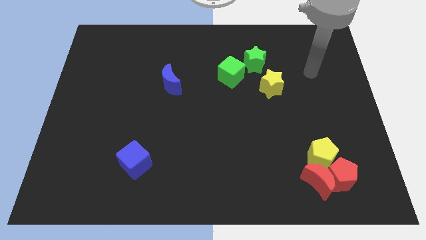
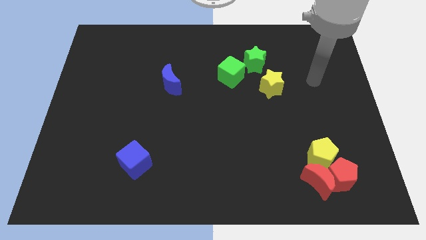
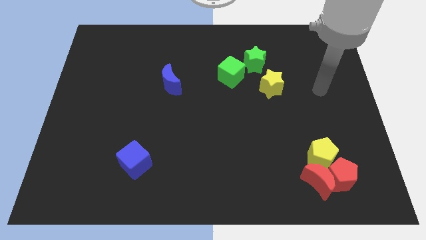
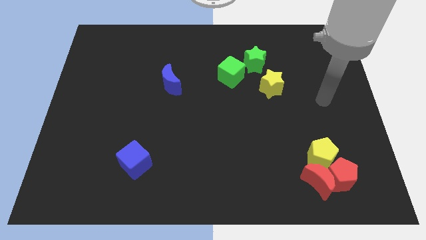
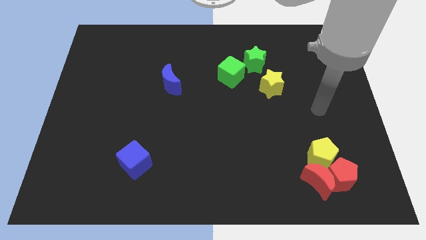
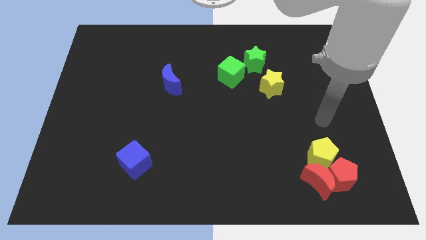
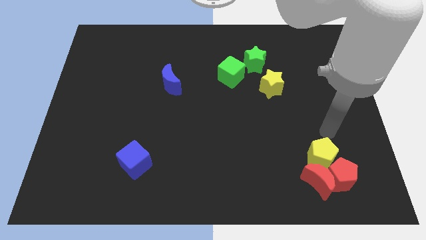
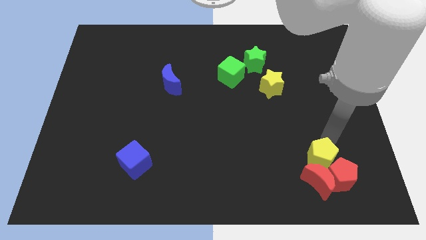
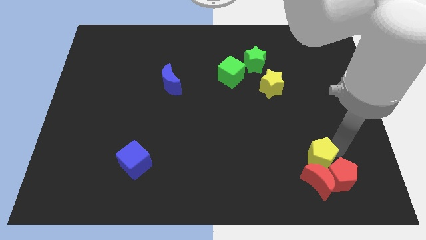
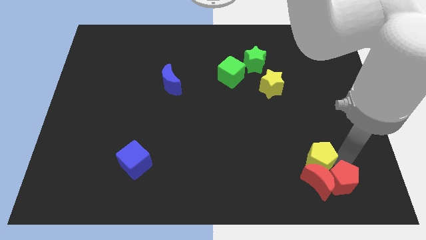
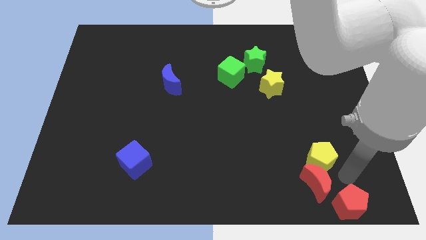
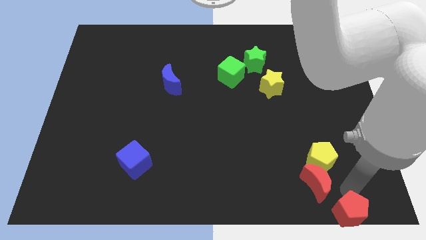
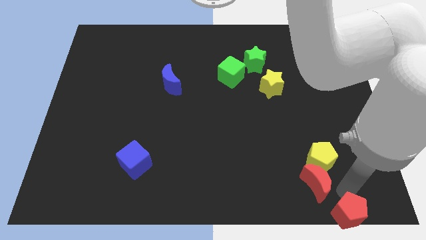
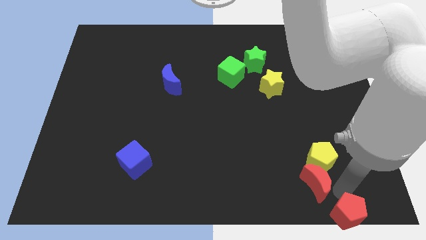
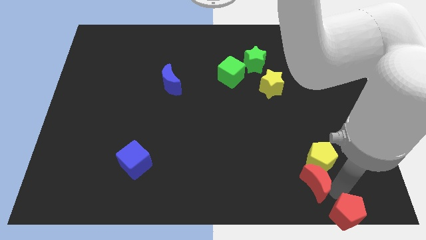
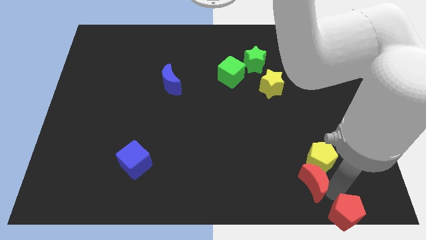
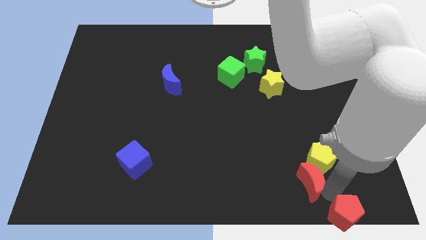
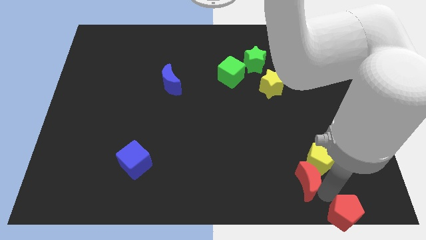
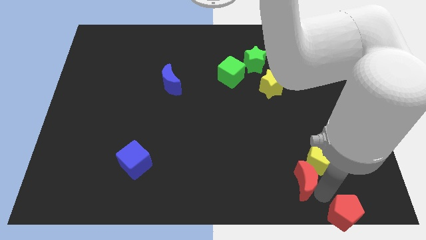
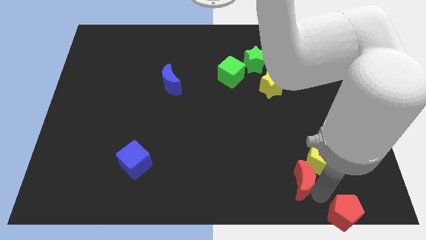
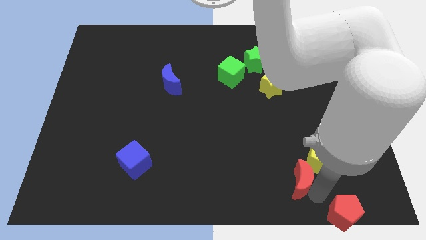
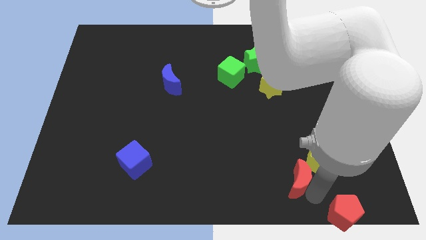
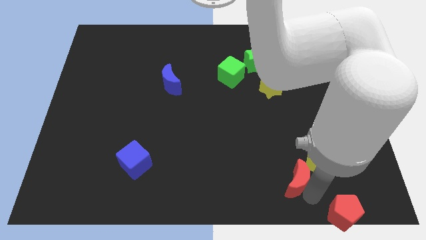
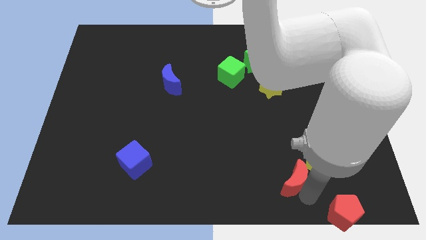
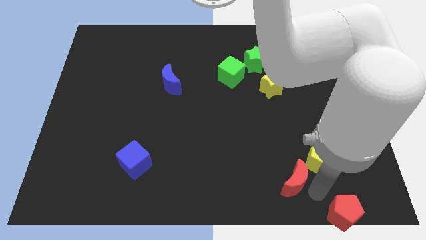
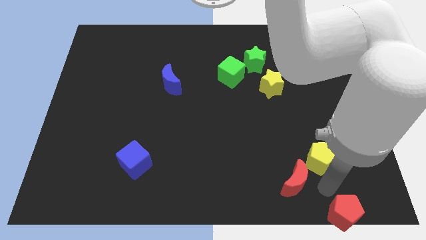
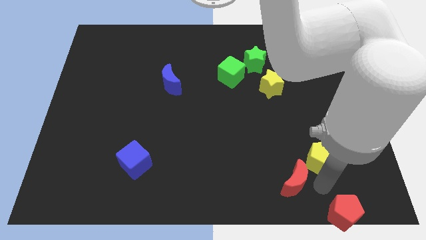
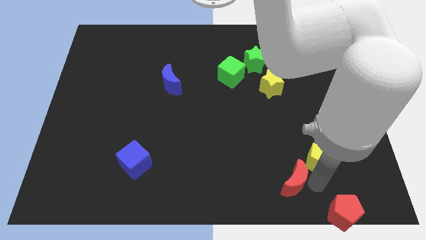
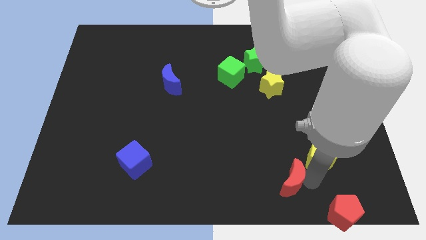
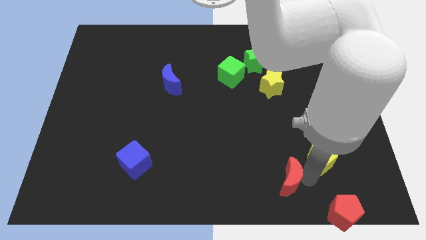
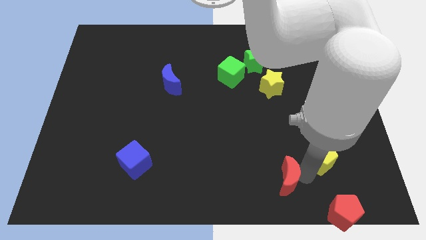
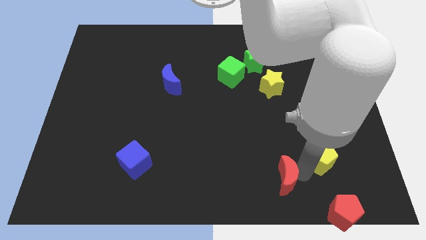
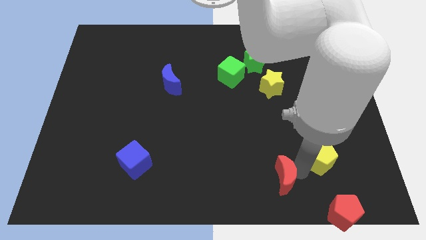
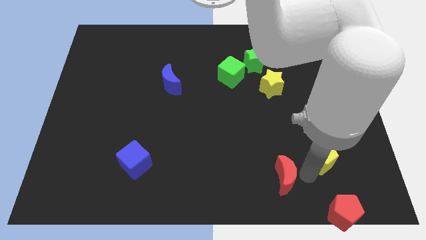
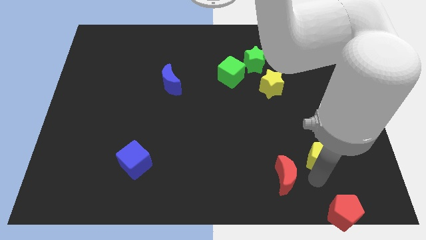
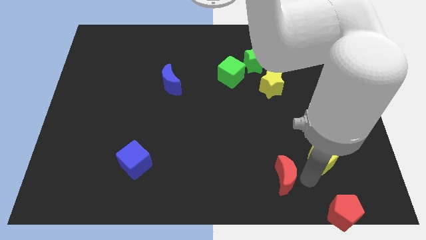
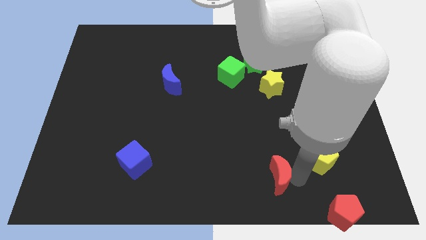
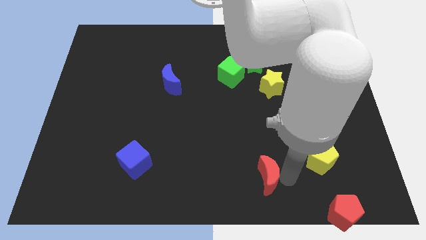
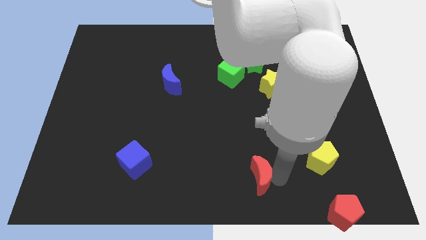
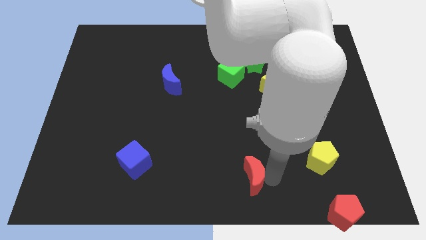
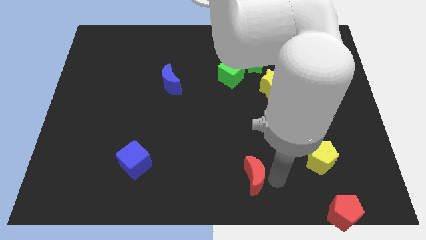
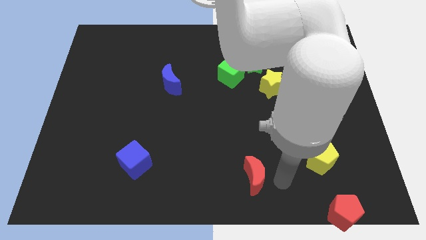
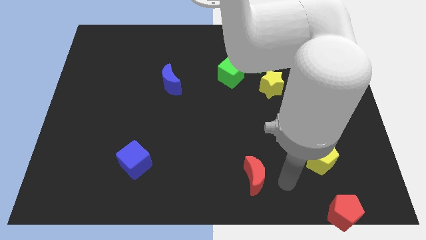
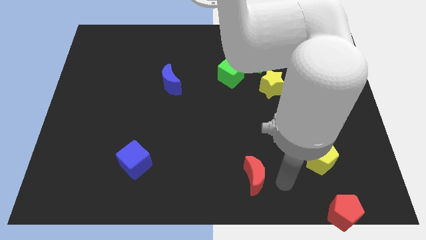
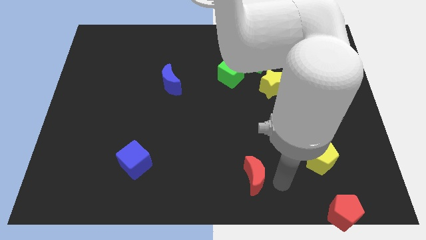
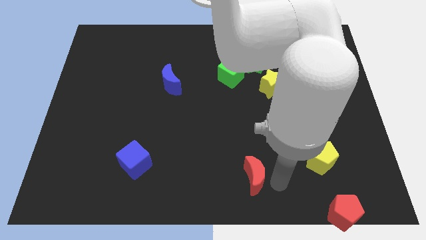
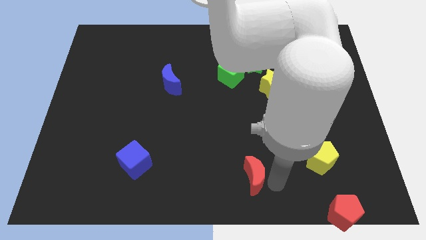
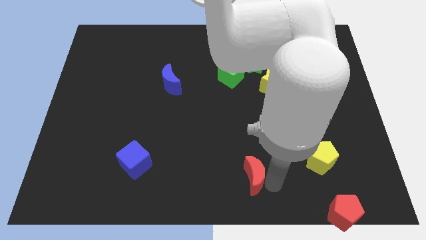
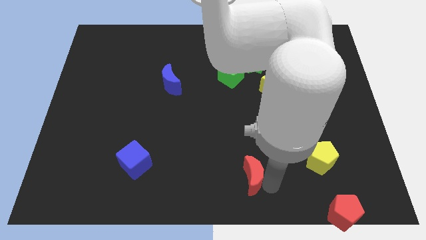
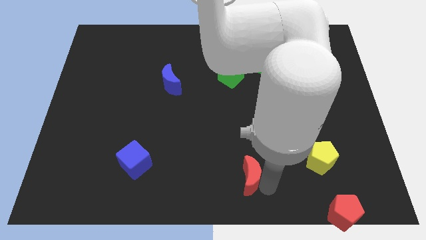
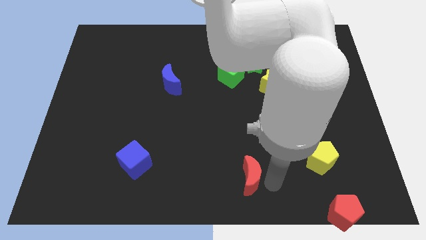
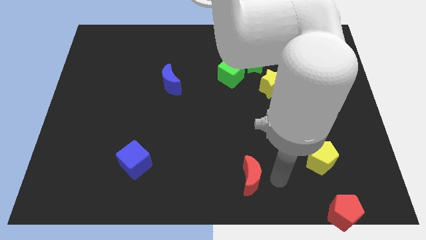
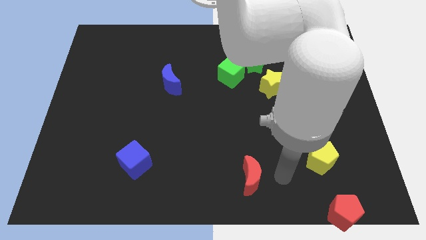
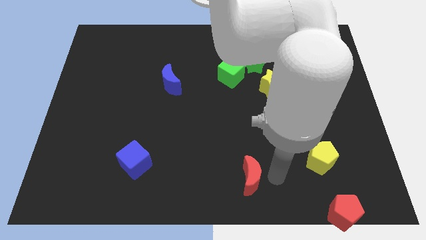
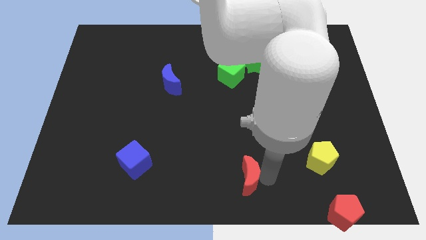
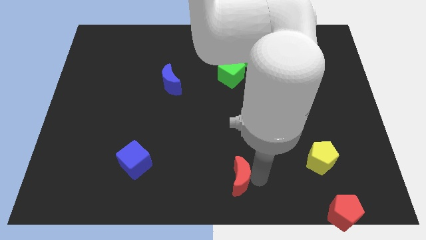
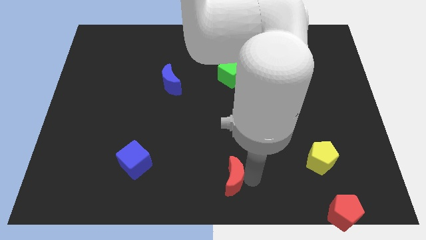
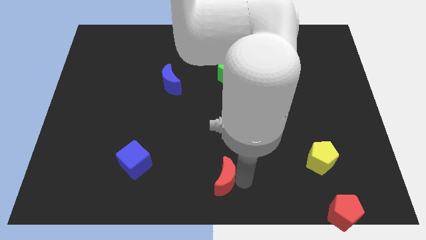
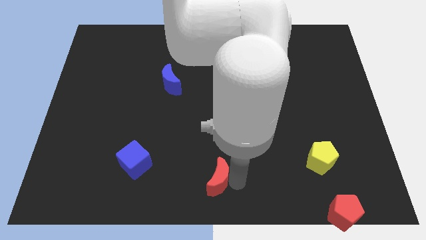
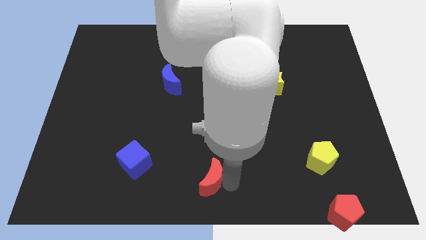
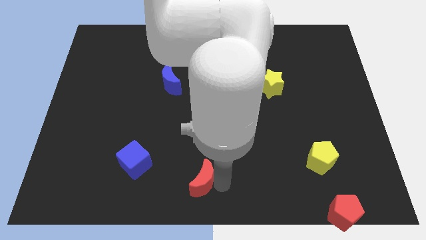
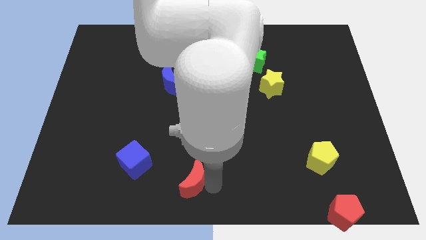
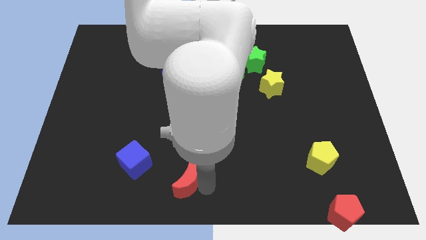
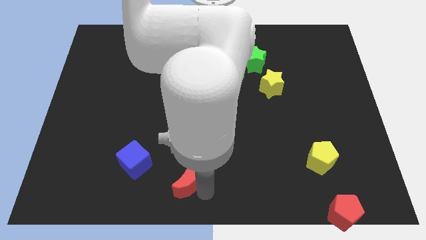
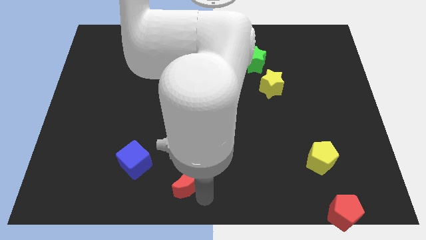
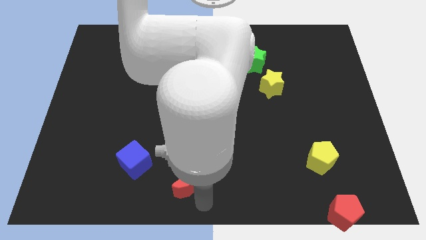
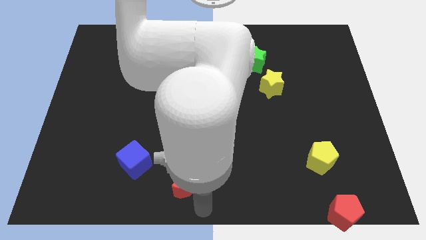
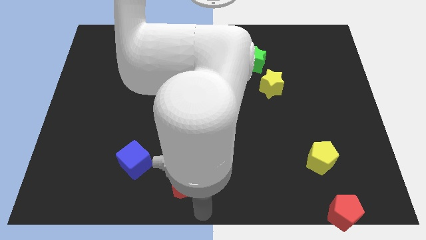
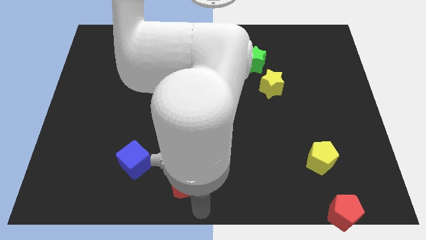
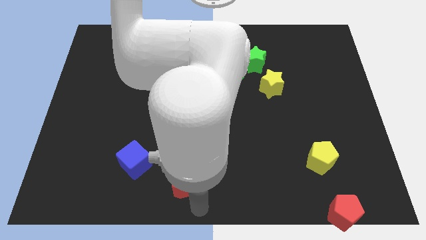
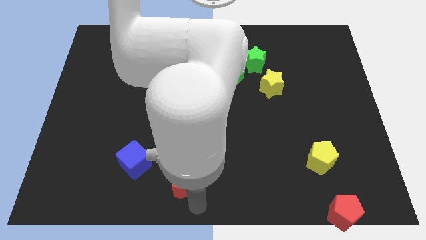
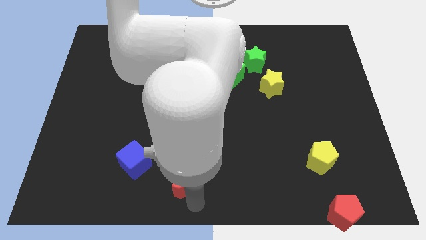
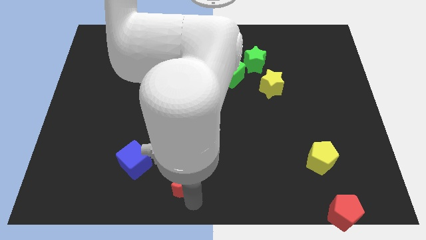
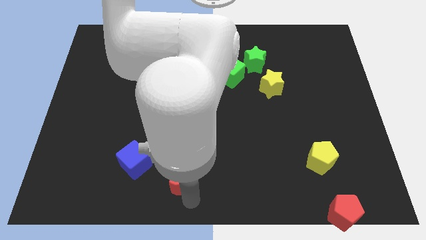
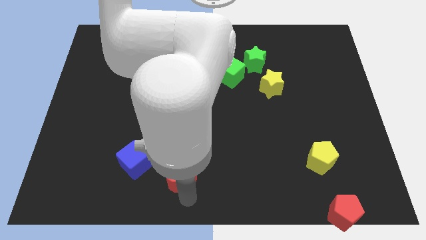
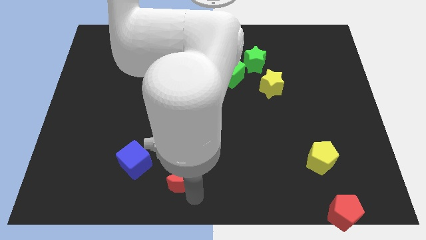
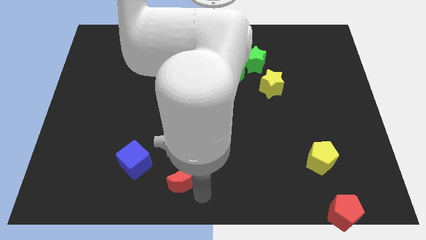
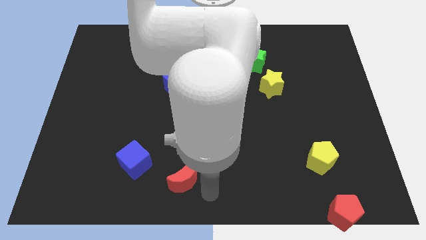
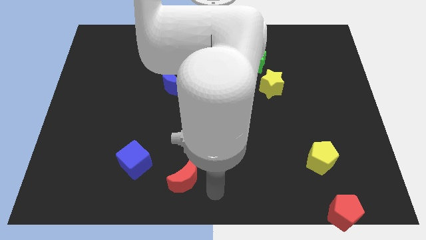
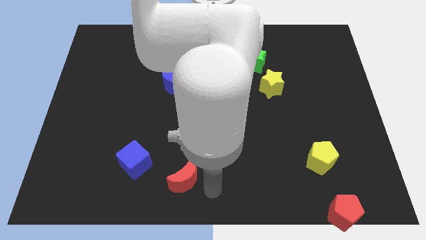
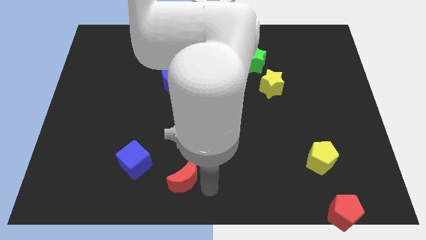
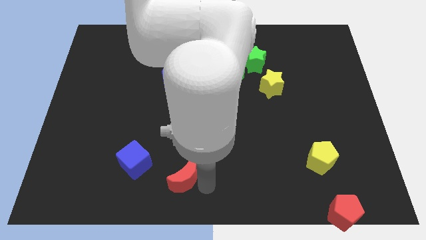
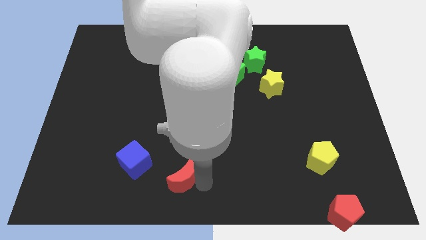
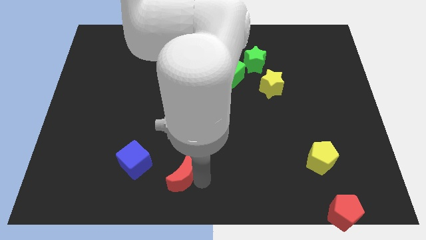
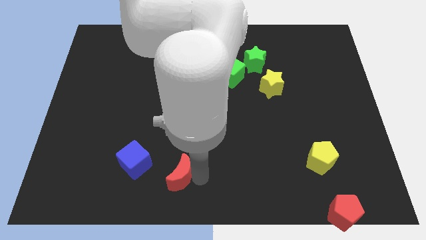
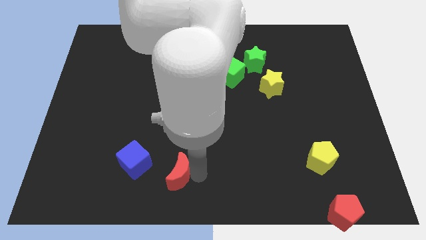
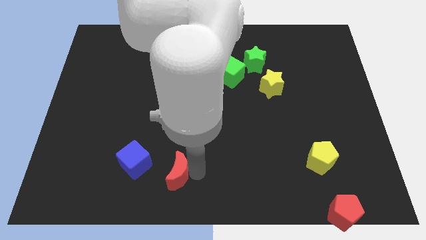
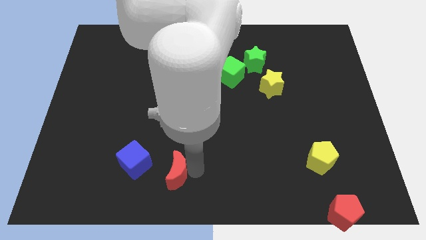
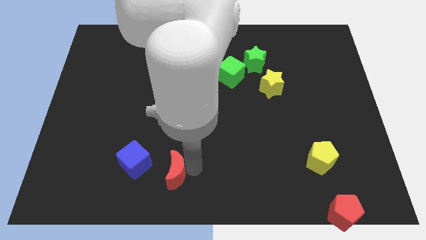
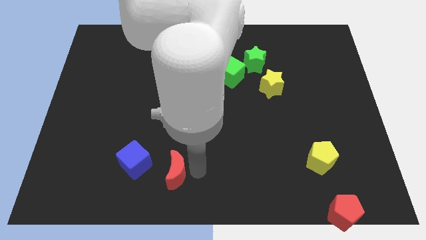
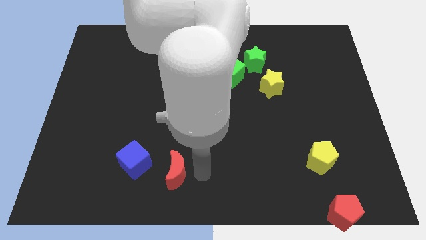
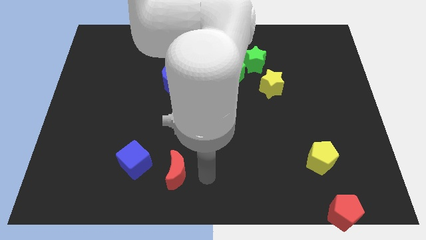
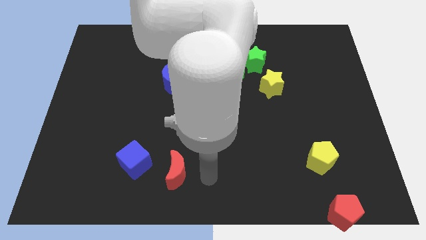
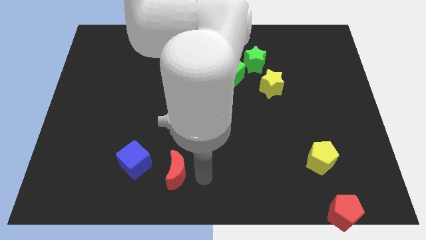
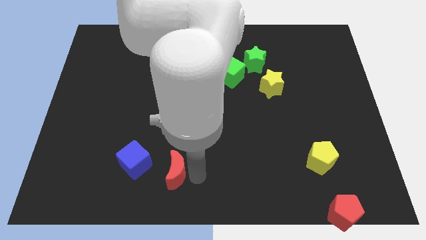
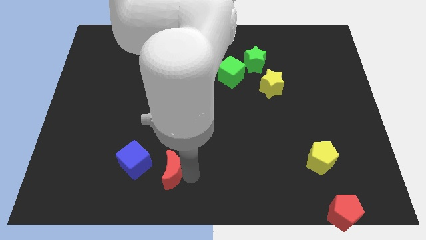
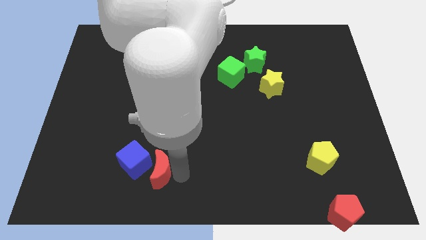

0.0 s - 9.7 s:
push the red moon close to the blue cube
